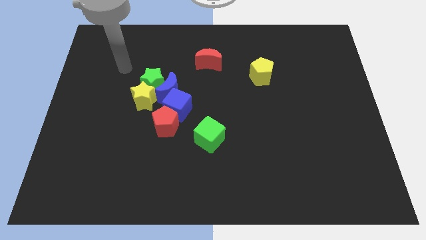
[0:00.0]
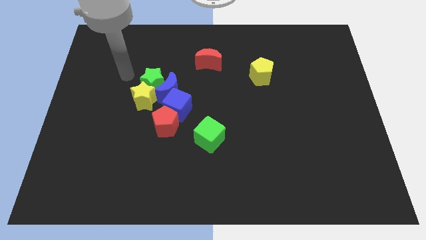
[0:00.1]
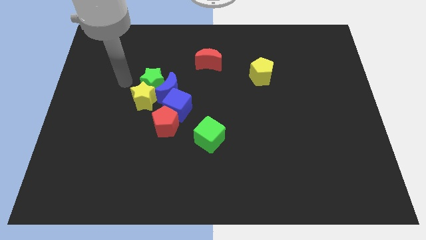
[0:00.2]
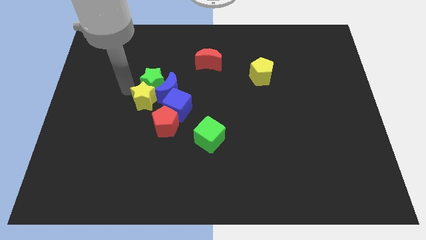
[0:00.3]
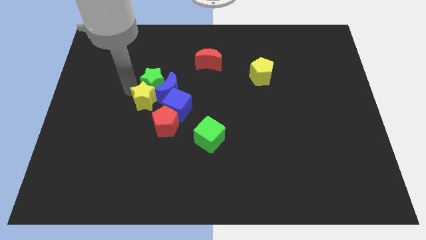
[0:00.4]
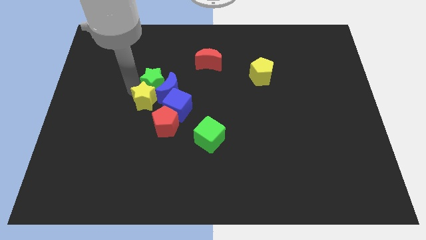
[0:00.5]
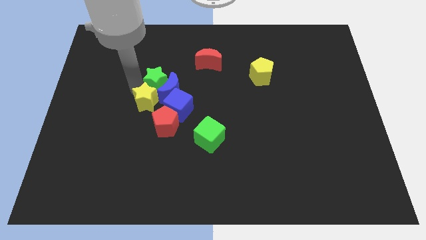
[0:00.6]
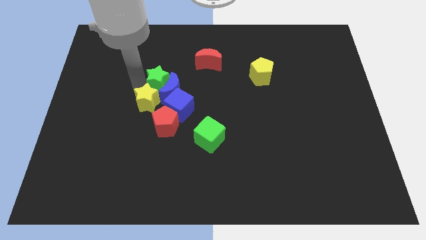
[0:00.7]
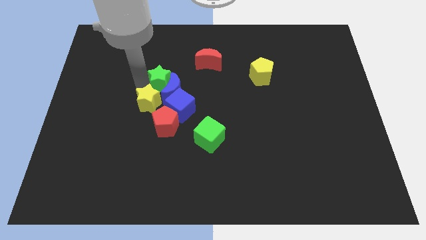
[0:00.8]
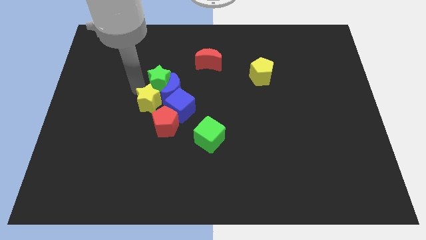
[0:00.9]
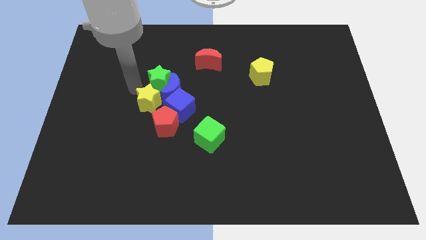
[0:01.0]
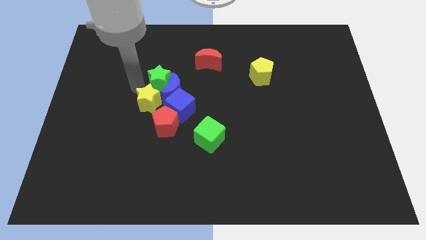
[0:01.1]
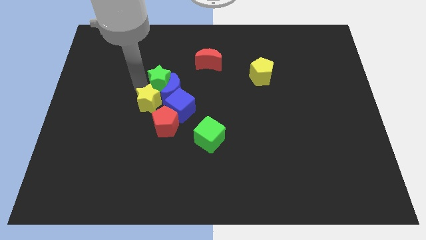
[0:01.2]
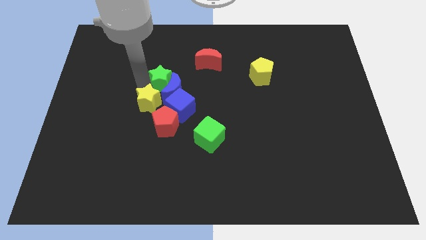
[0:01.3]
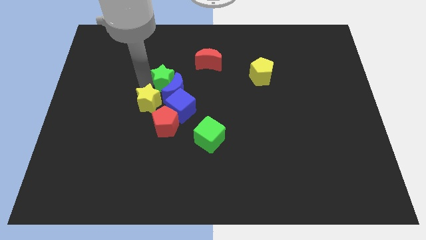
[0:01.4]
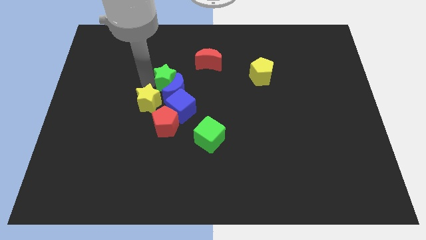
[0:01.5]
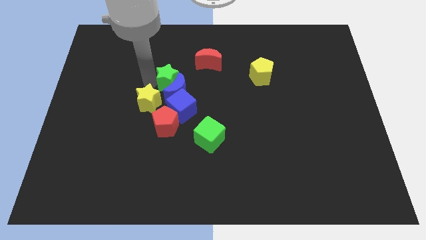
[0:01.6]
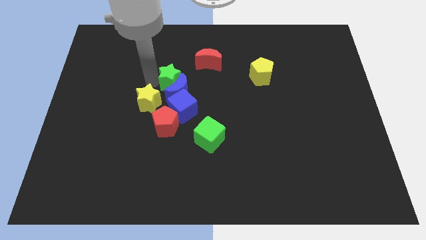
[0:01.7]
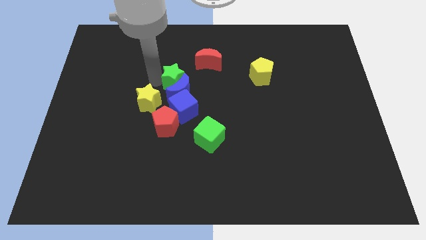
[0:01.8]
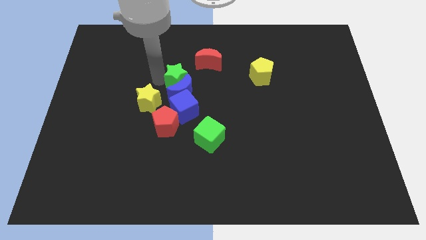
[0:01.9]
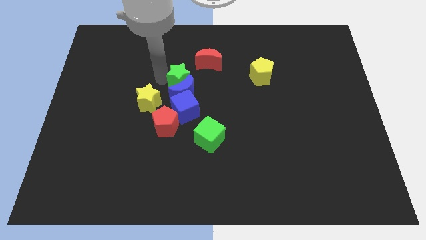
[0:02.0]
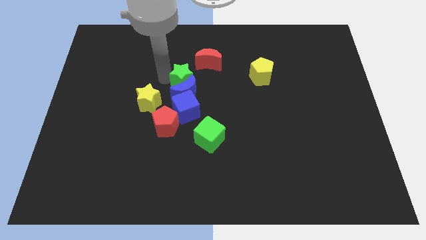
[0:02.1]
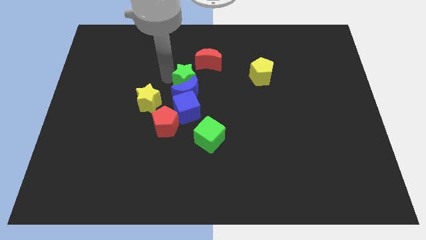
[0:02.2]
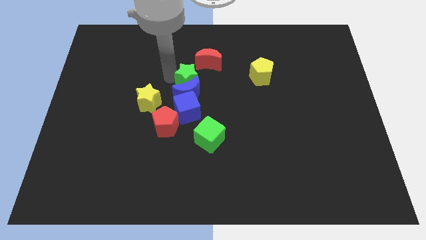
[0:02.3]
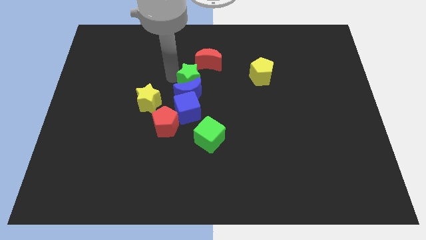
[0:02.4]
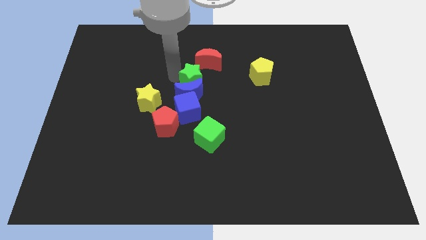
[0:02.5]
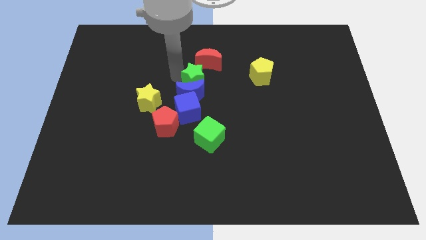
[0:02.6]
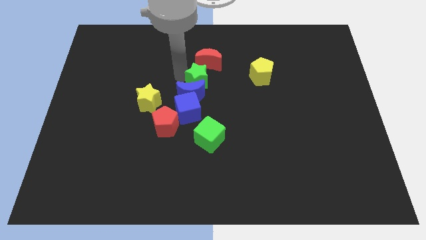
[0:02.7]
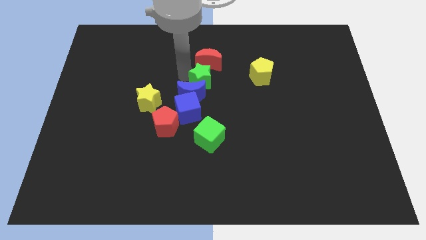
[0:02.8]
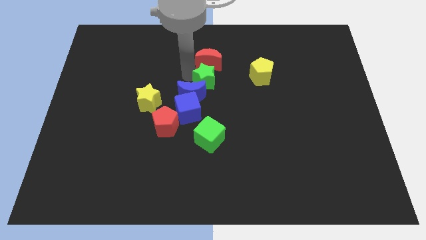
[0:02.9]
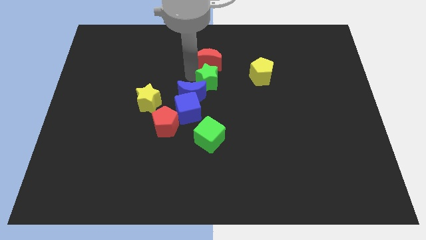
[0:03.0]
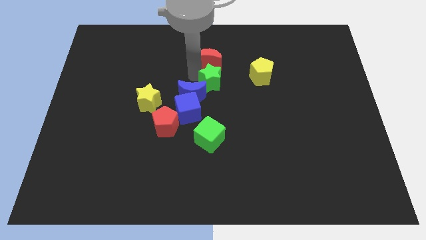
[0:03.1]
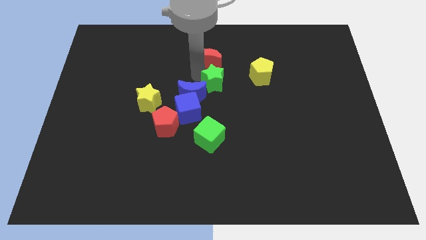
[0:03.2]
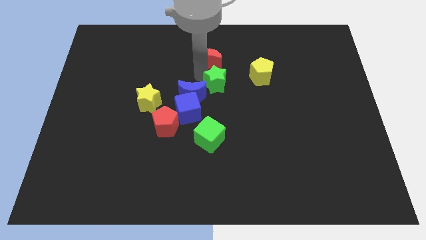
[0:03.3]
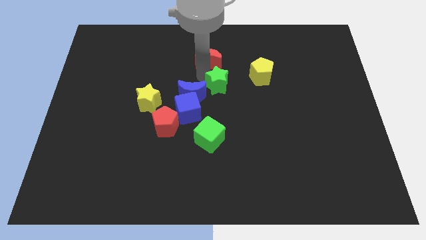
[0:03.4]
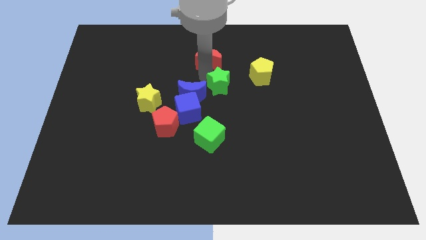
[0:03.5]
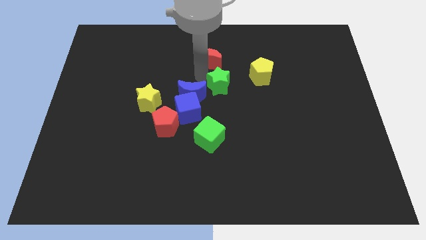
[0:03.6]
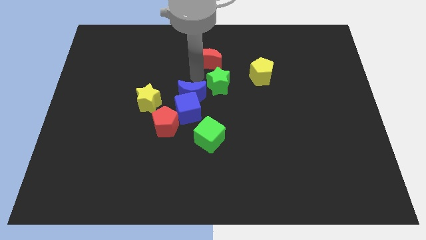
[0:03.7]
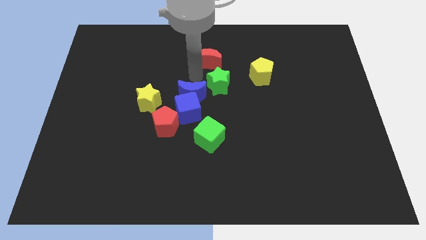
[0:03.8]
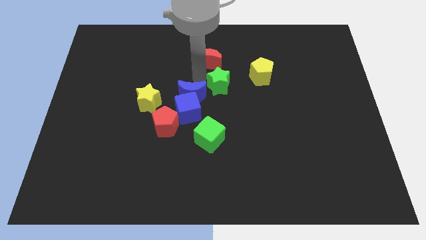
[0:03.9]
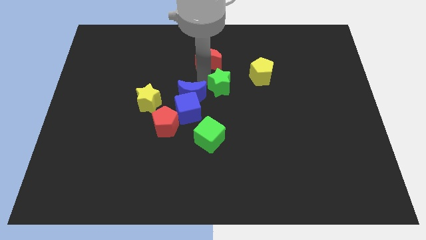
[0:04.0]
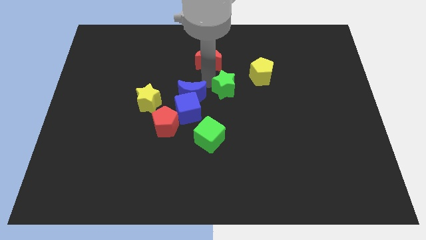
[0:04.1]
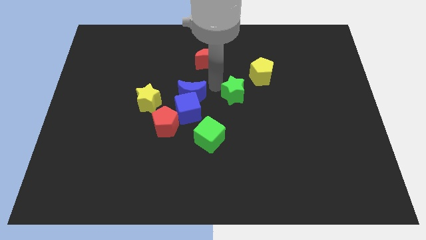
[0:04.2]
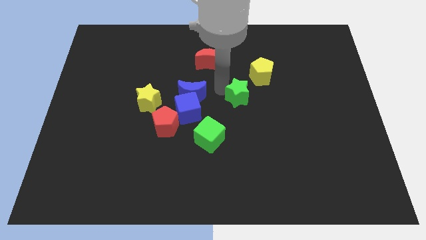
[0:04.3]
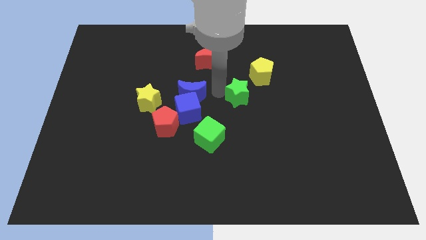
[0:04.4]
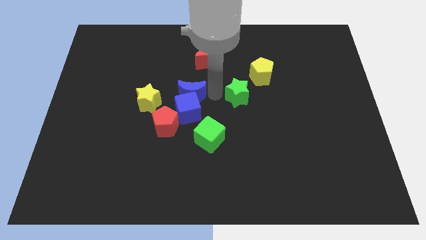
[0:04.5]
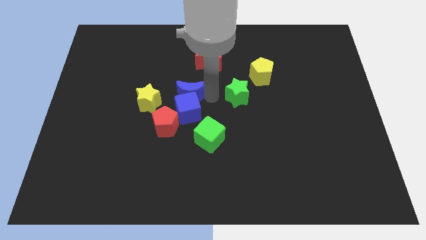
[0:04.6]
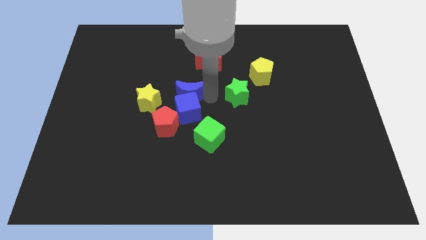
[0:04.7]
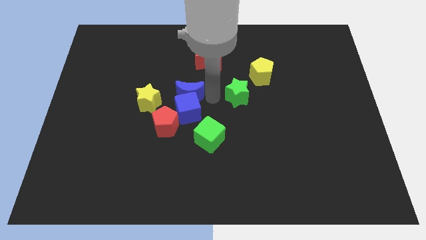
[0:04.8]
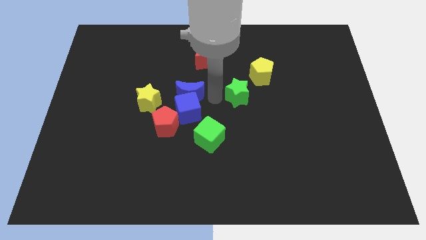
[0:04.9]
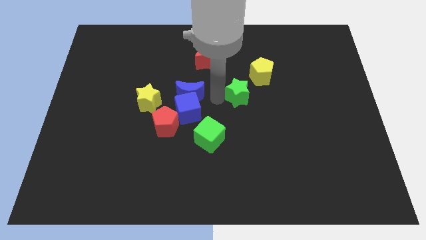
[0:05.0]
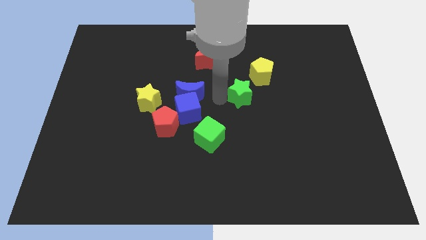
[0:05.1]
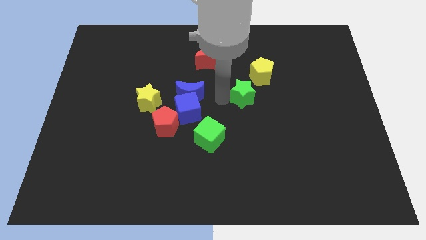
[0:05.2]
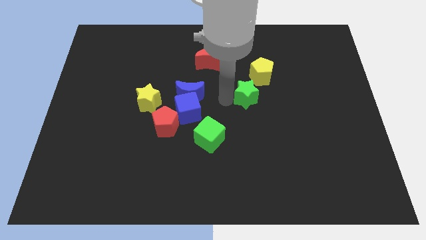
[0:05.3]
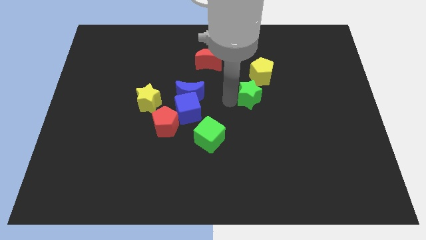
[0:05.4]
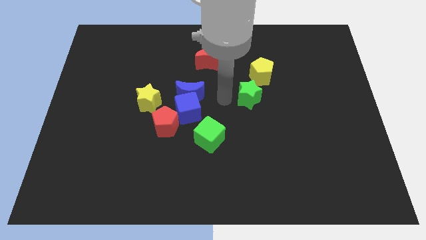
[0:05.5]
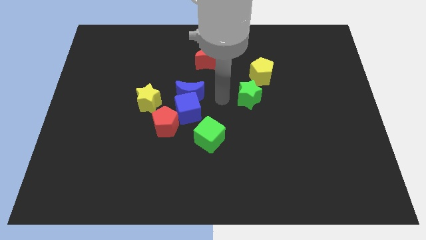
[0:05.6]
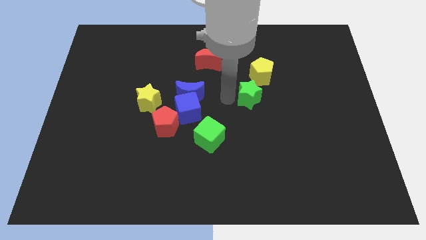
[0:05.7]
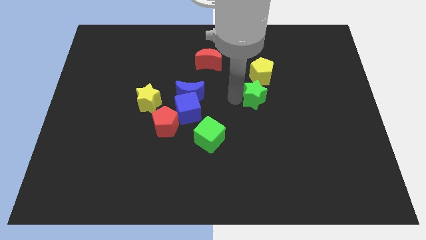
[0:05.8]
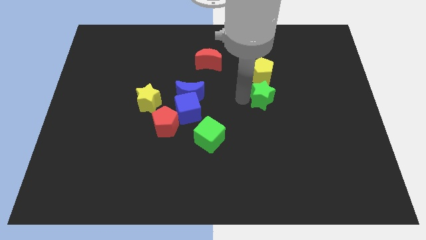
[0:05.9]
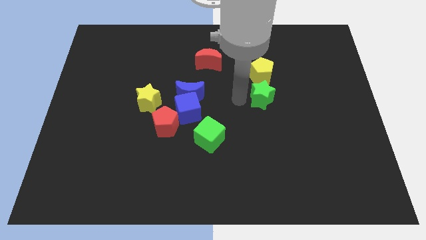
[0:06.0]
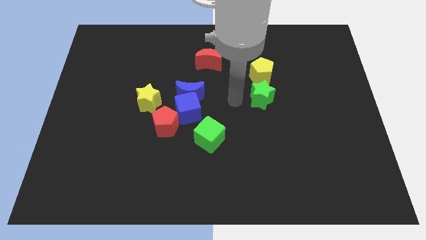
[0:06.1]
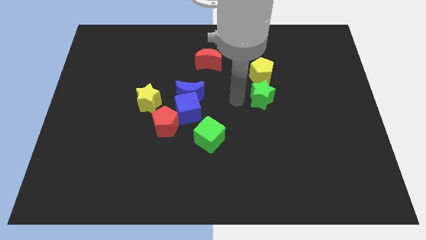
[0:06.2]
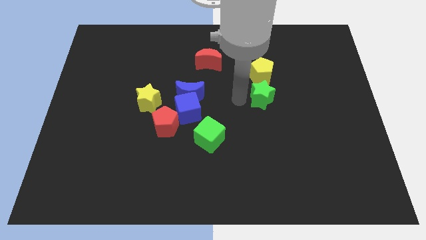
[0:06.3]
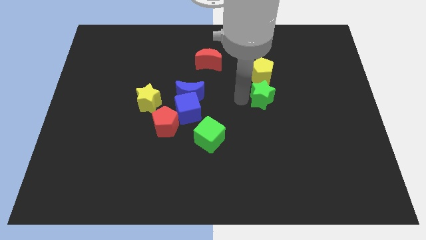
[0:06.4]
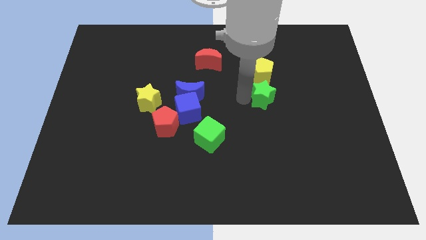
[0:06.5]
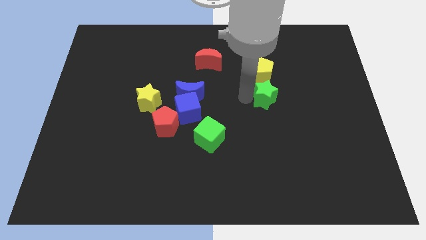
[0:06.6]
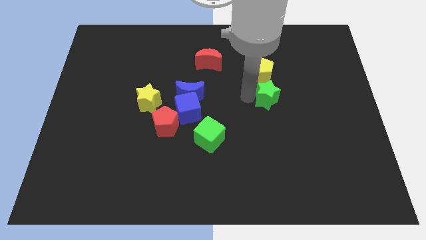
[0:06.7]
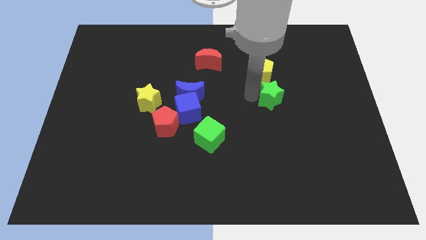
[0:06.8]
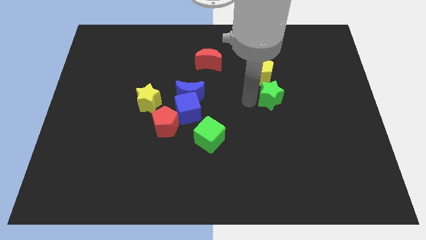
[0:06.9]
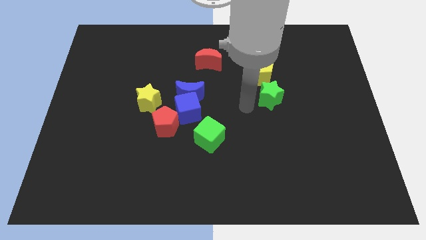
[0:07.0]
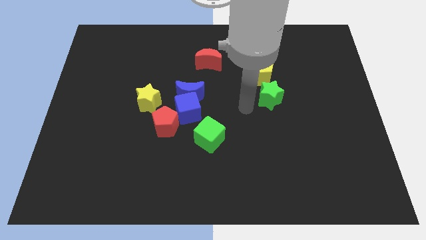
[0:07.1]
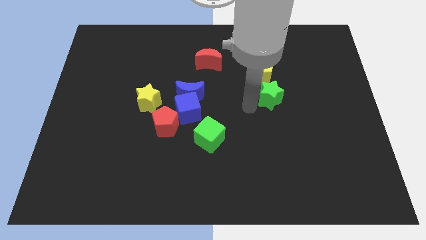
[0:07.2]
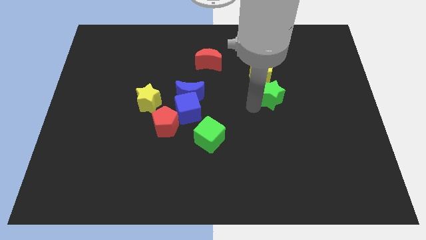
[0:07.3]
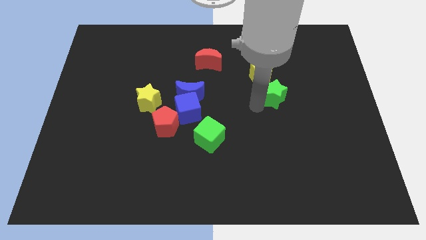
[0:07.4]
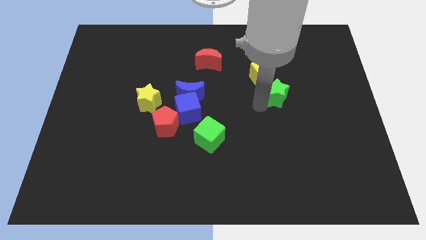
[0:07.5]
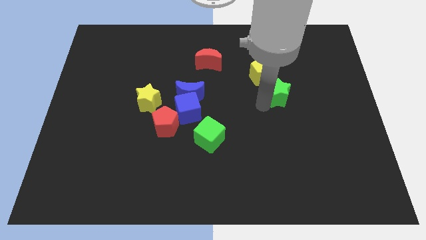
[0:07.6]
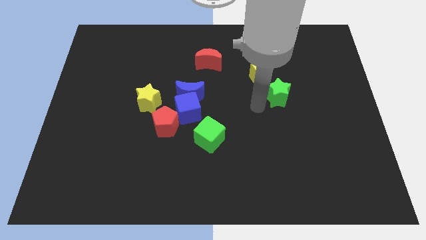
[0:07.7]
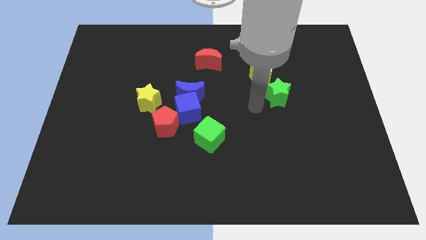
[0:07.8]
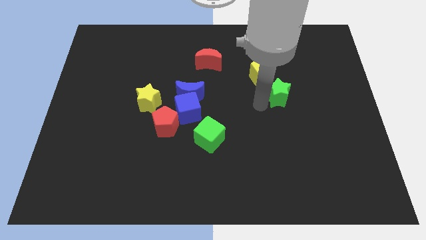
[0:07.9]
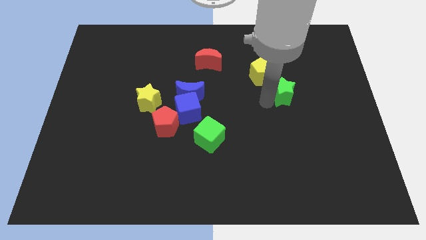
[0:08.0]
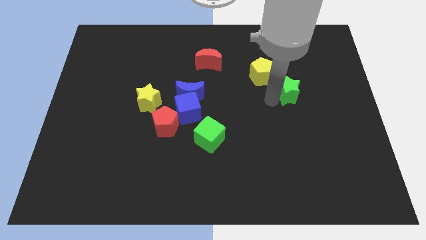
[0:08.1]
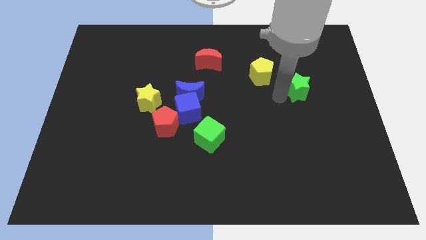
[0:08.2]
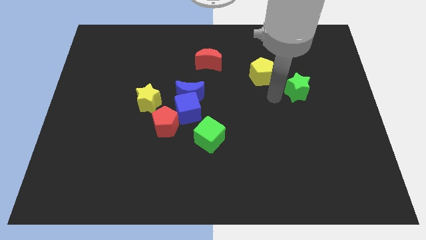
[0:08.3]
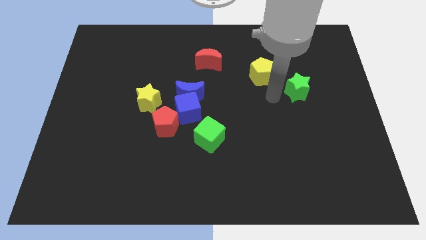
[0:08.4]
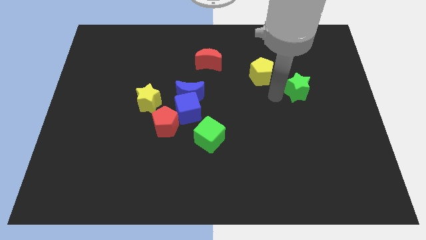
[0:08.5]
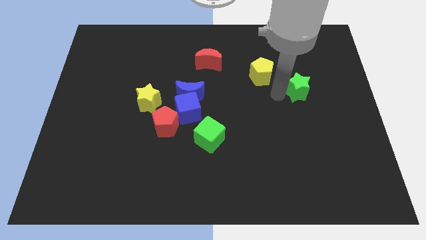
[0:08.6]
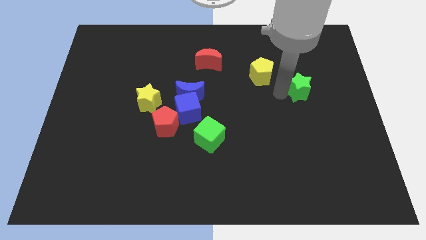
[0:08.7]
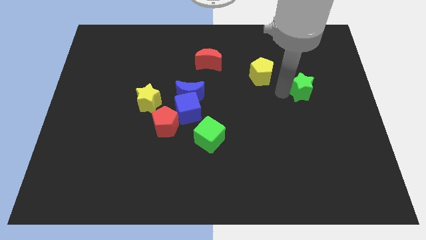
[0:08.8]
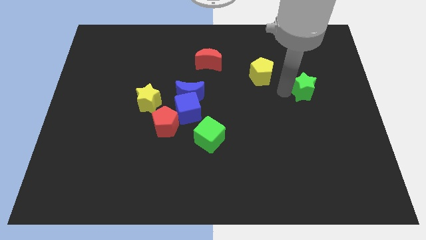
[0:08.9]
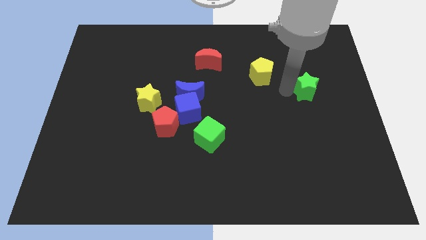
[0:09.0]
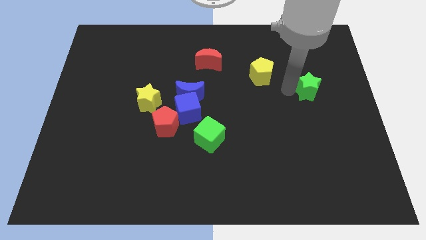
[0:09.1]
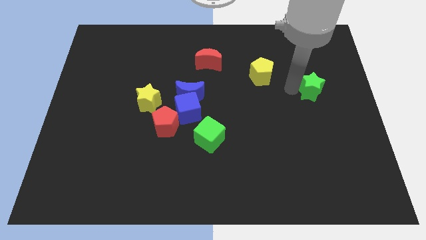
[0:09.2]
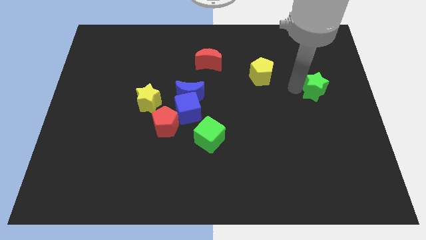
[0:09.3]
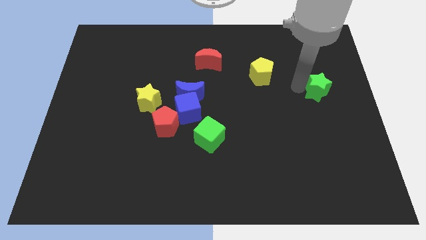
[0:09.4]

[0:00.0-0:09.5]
push the green star to the center right
